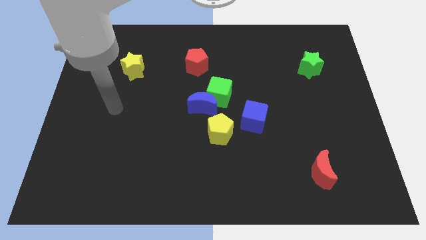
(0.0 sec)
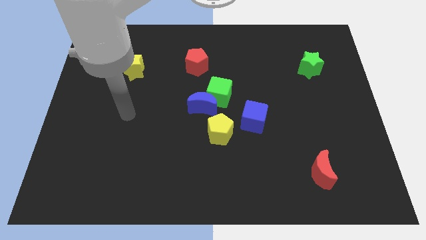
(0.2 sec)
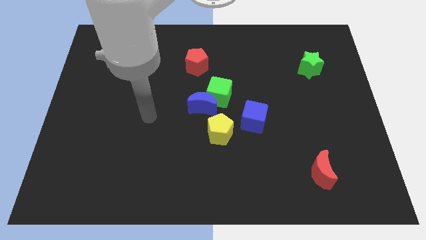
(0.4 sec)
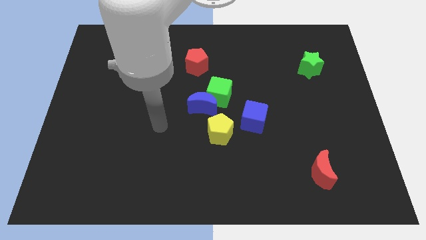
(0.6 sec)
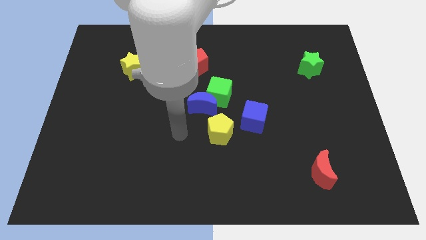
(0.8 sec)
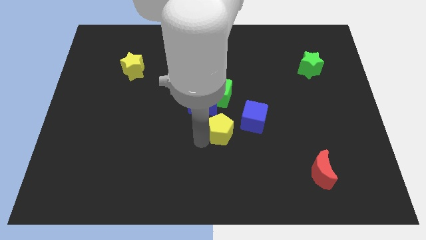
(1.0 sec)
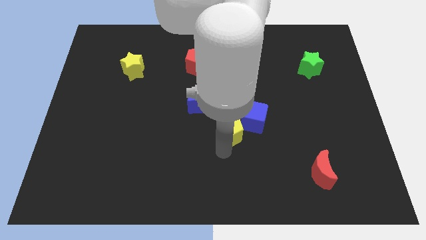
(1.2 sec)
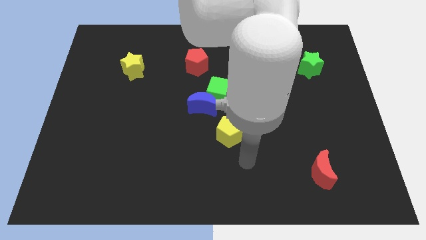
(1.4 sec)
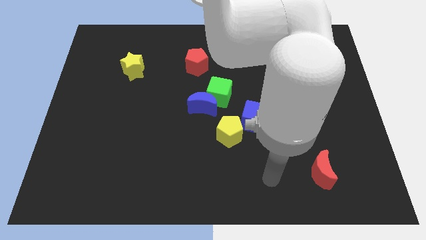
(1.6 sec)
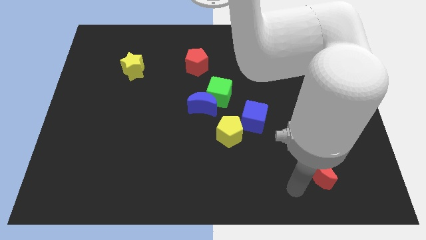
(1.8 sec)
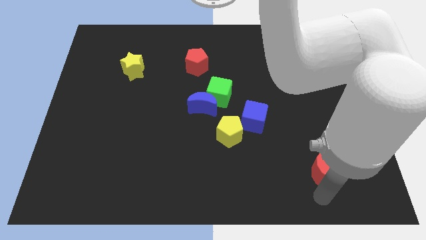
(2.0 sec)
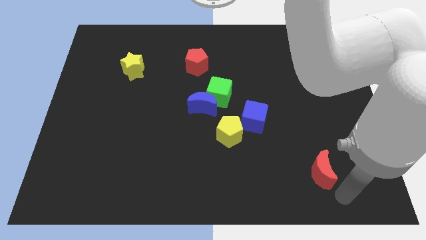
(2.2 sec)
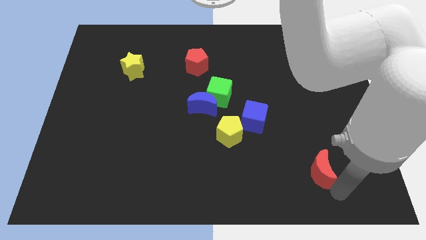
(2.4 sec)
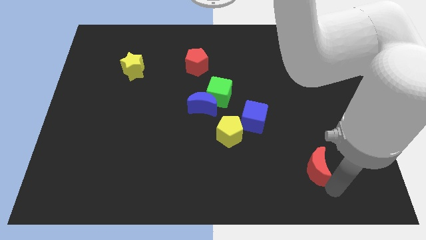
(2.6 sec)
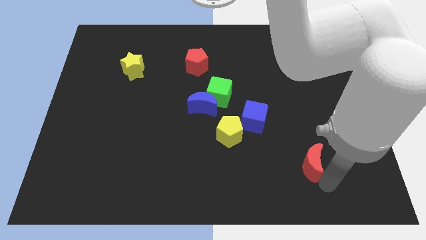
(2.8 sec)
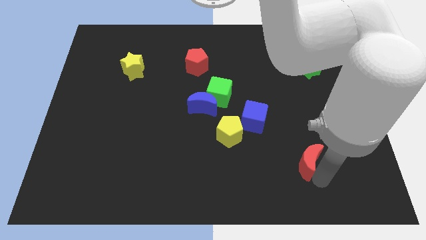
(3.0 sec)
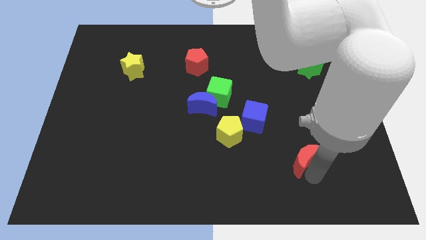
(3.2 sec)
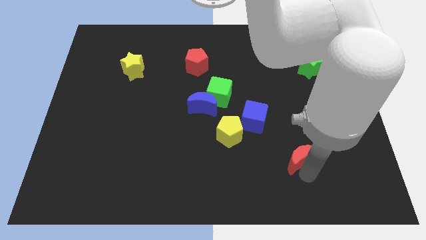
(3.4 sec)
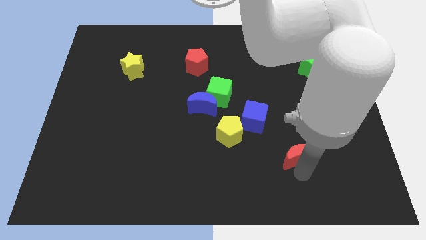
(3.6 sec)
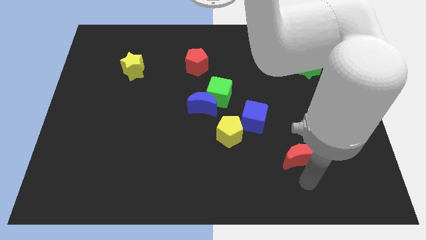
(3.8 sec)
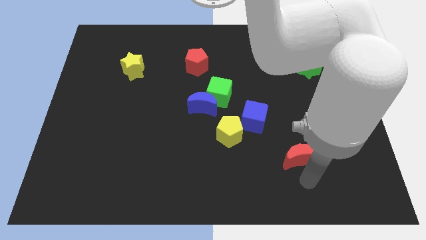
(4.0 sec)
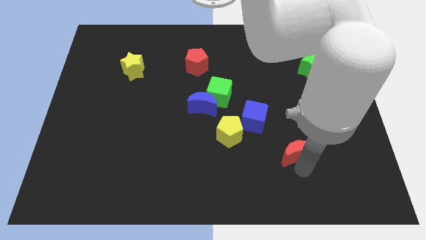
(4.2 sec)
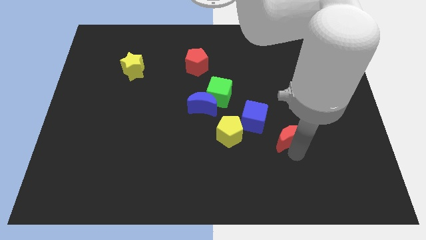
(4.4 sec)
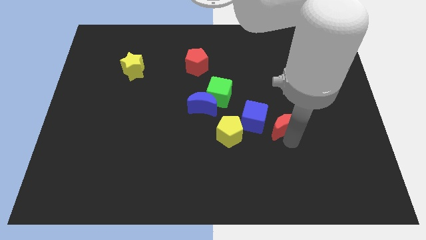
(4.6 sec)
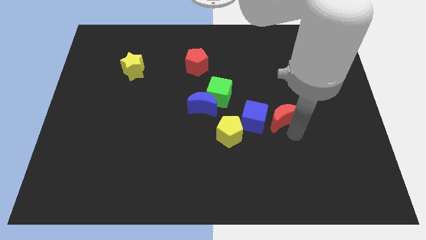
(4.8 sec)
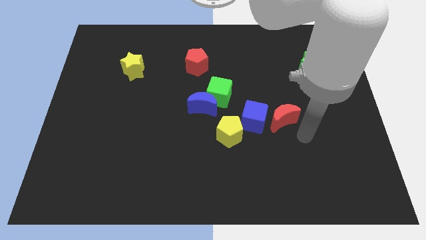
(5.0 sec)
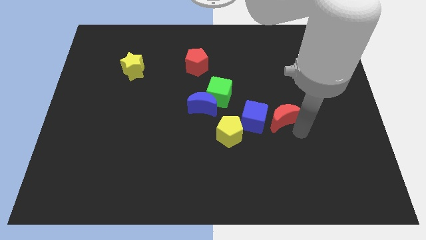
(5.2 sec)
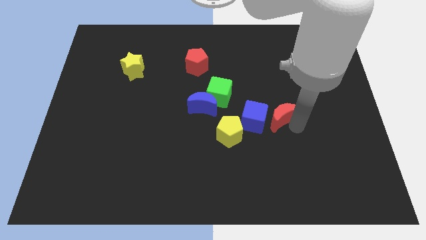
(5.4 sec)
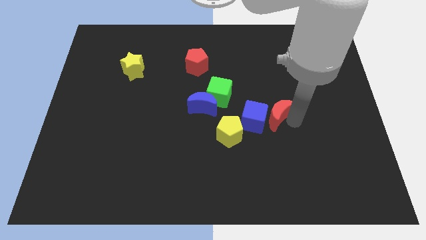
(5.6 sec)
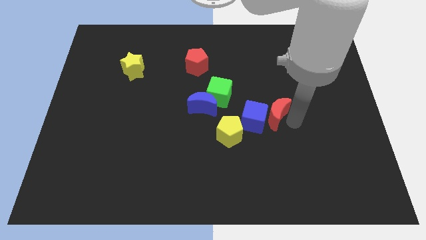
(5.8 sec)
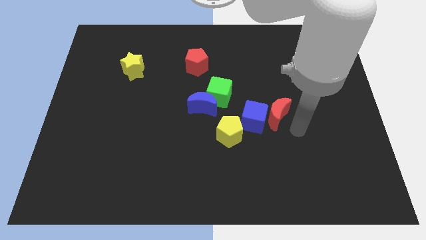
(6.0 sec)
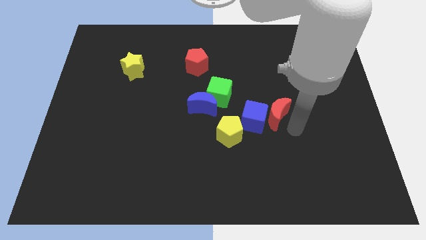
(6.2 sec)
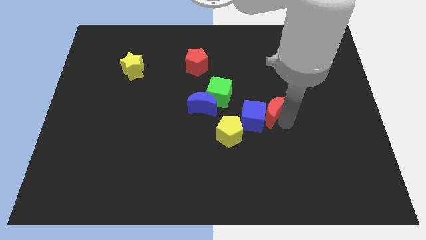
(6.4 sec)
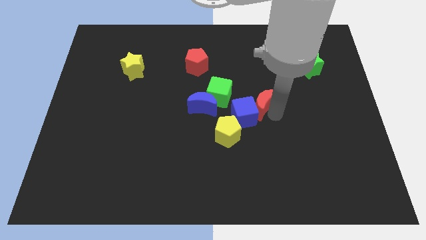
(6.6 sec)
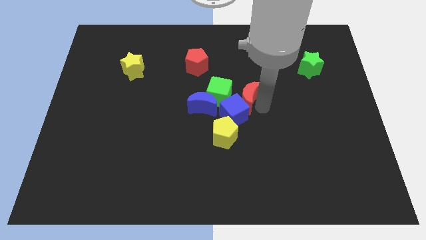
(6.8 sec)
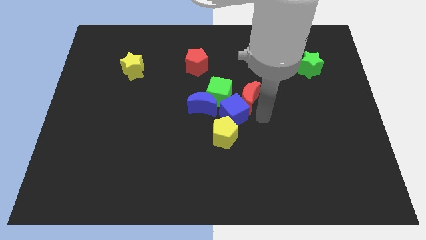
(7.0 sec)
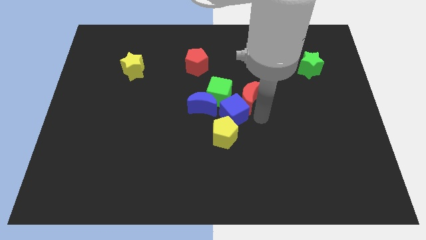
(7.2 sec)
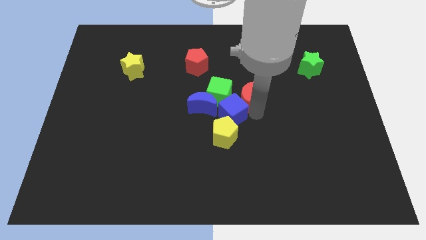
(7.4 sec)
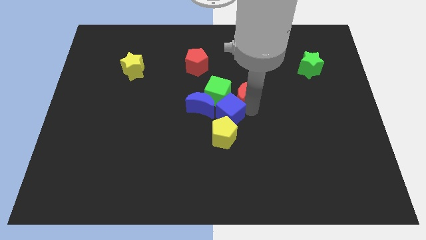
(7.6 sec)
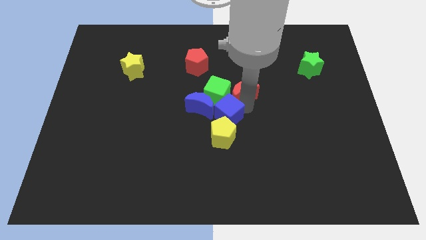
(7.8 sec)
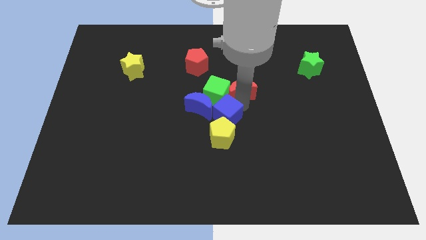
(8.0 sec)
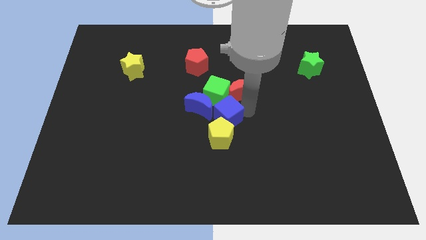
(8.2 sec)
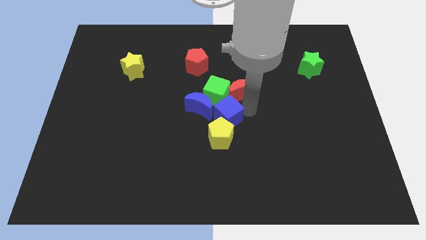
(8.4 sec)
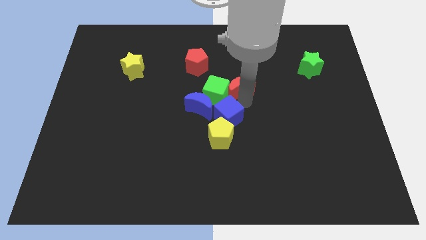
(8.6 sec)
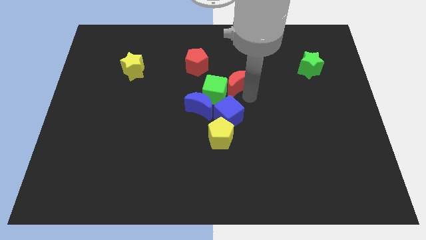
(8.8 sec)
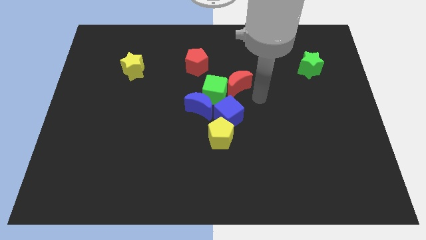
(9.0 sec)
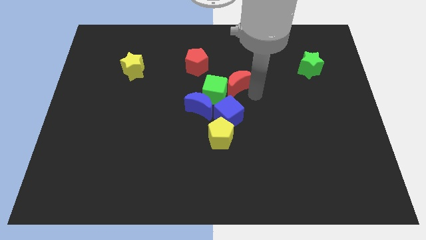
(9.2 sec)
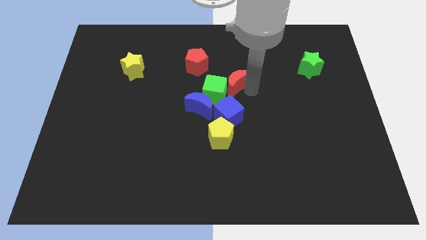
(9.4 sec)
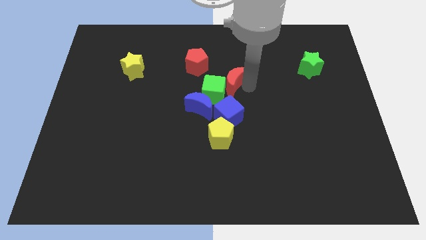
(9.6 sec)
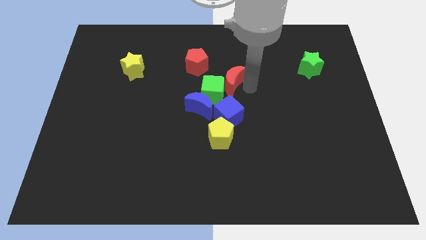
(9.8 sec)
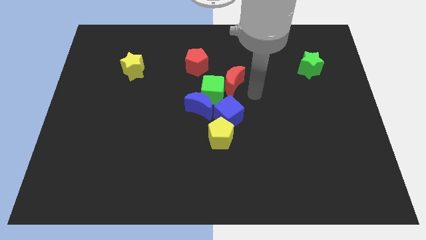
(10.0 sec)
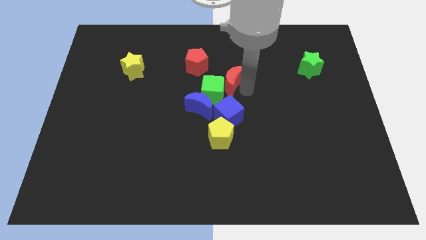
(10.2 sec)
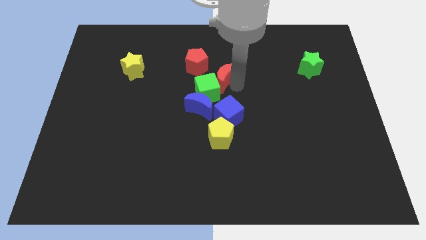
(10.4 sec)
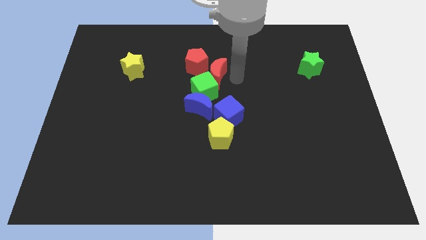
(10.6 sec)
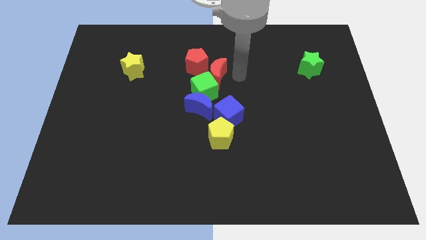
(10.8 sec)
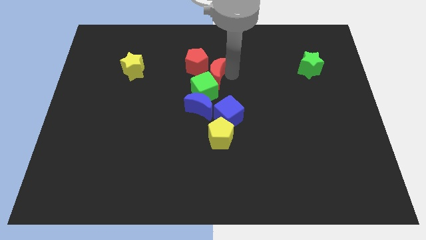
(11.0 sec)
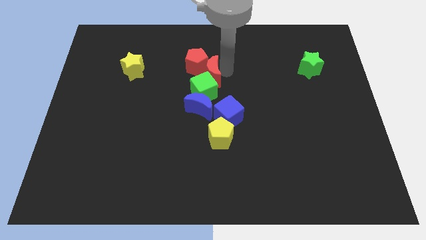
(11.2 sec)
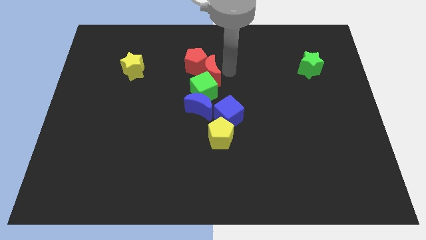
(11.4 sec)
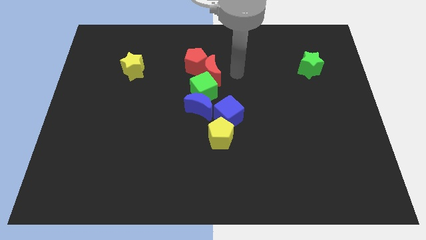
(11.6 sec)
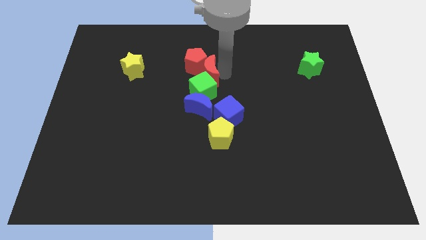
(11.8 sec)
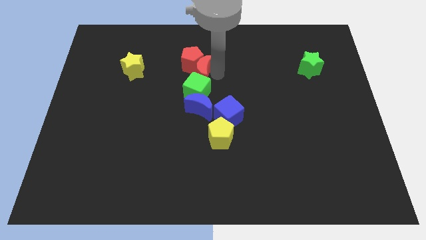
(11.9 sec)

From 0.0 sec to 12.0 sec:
slide the red moon diagonally up and to the left of the green cube

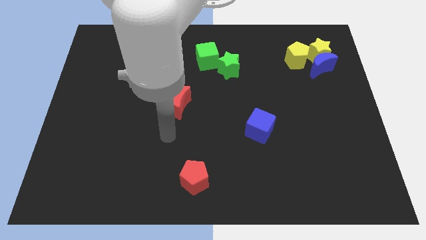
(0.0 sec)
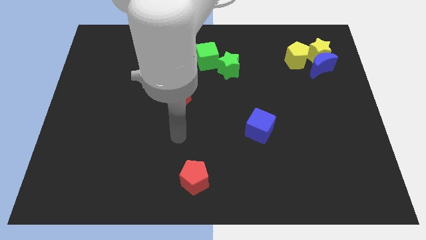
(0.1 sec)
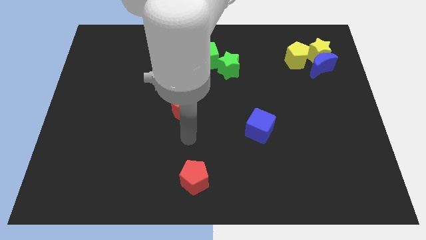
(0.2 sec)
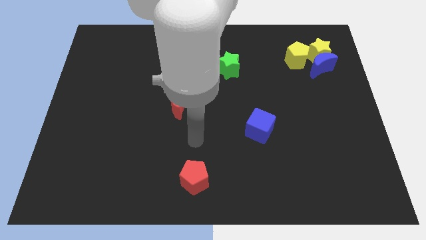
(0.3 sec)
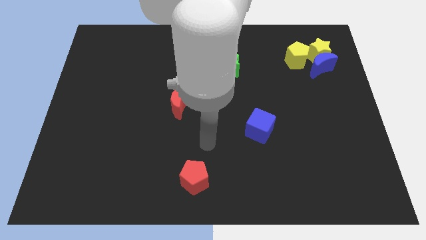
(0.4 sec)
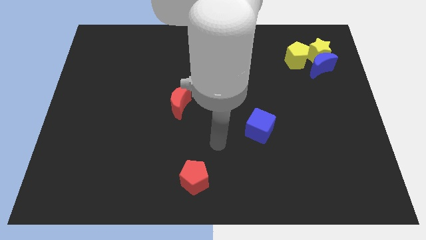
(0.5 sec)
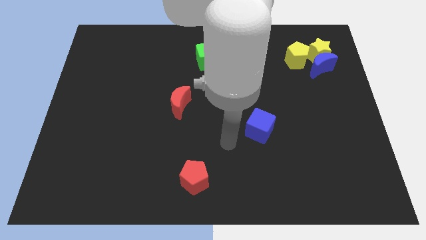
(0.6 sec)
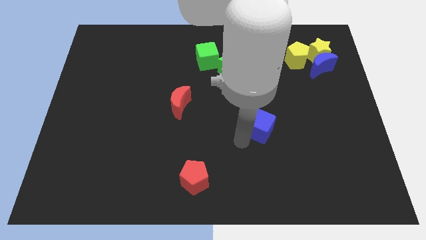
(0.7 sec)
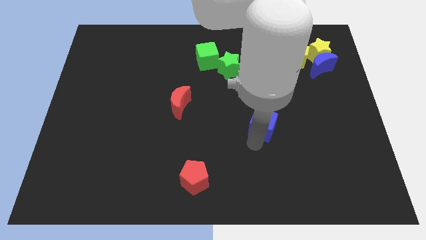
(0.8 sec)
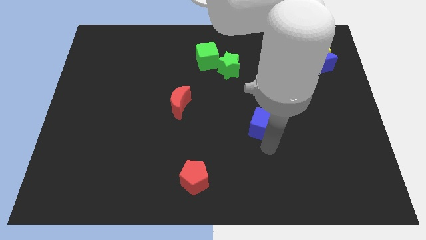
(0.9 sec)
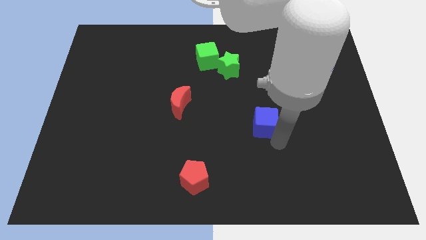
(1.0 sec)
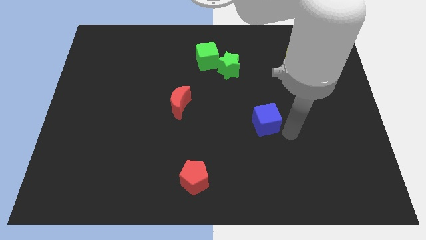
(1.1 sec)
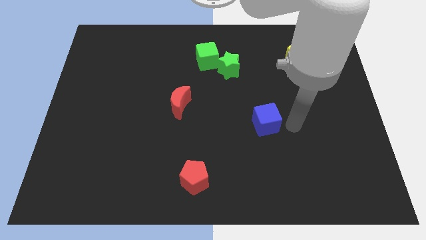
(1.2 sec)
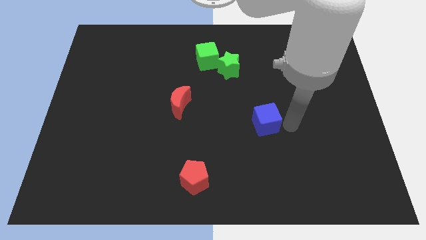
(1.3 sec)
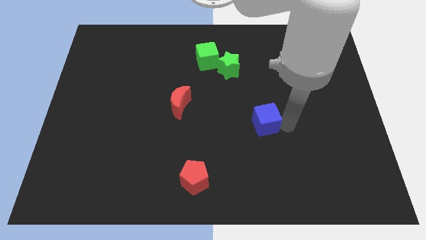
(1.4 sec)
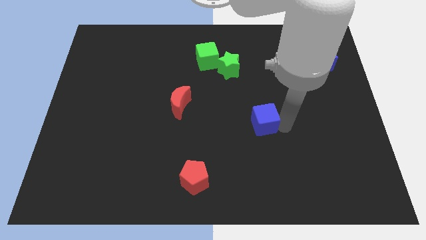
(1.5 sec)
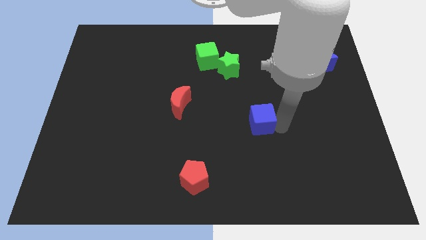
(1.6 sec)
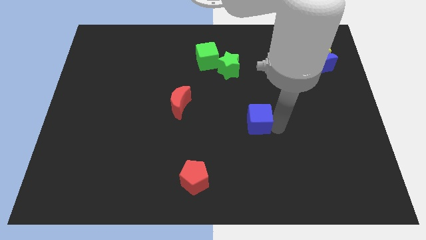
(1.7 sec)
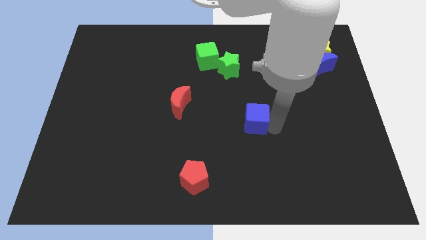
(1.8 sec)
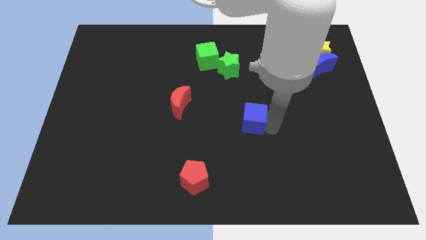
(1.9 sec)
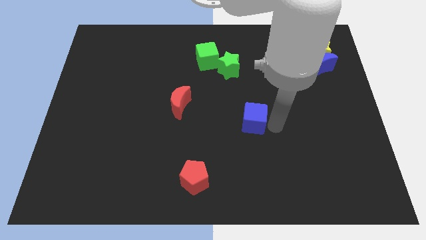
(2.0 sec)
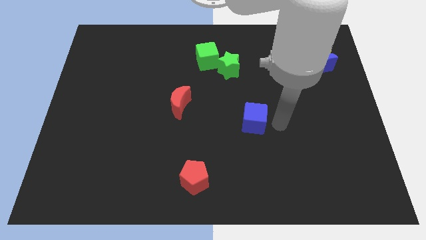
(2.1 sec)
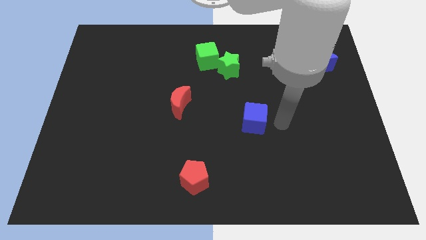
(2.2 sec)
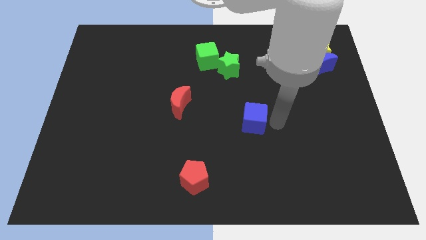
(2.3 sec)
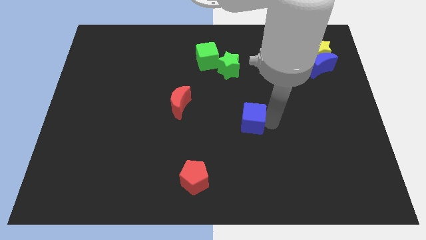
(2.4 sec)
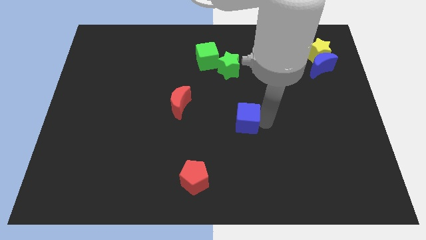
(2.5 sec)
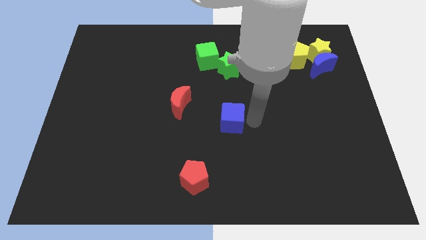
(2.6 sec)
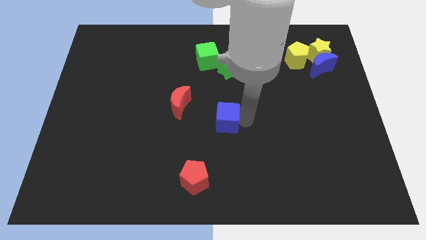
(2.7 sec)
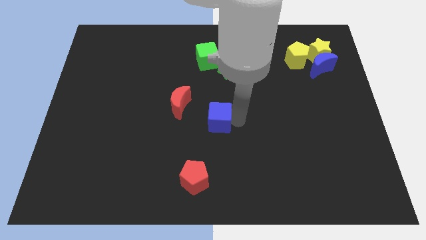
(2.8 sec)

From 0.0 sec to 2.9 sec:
move the blue cube diagonally down and to the right of the red moon
